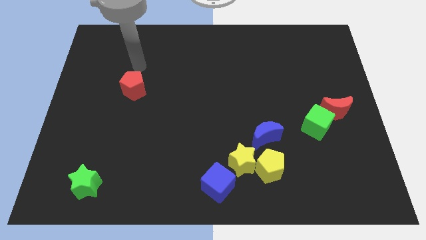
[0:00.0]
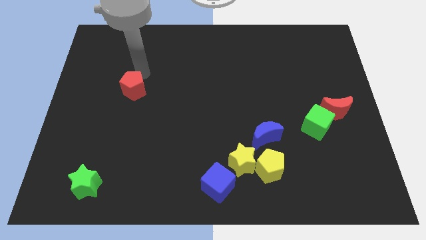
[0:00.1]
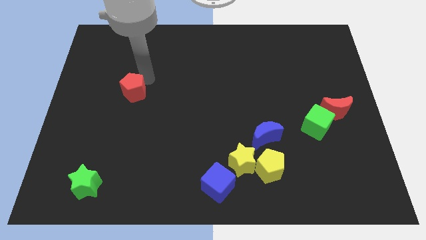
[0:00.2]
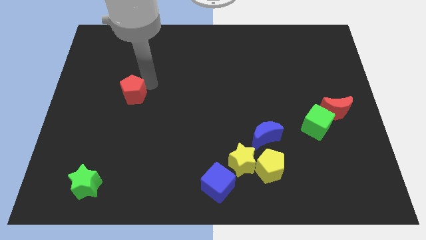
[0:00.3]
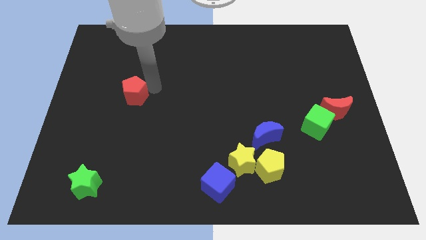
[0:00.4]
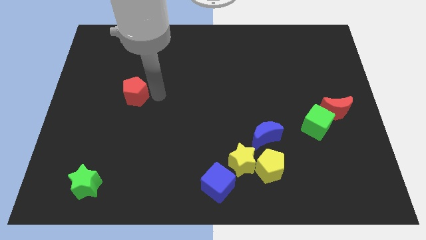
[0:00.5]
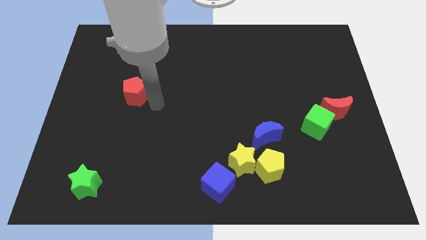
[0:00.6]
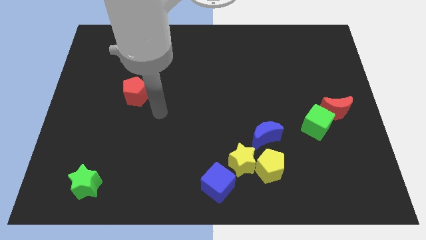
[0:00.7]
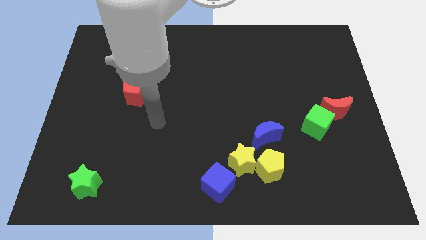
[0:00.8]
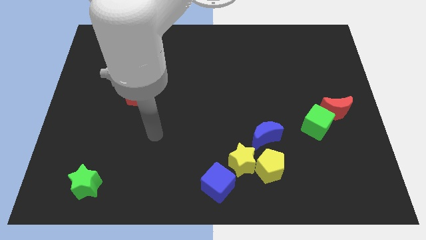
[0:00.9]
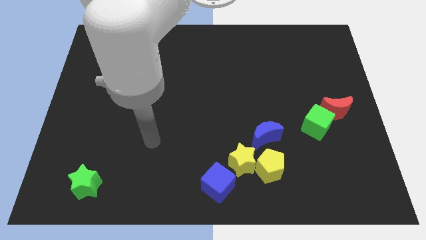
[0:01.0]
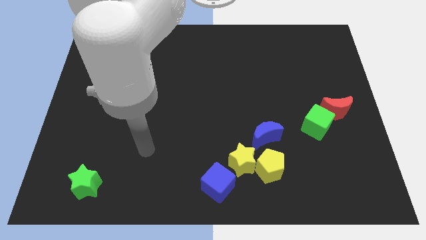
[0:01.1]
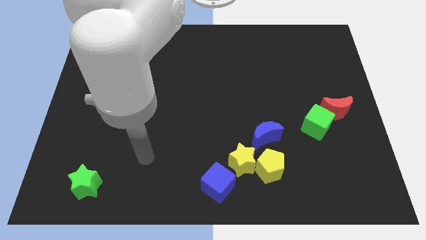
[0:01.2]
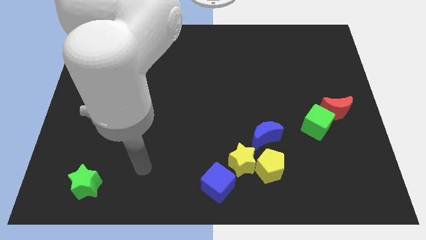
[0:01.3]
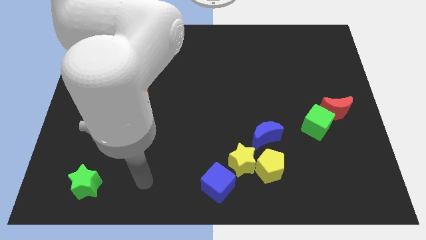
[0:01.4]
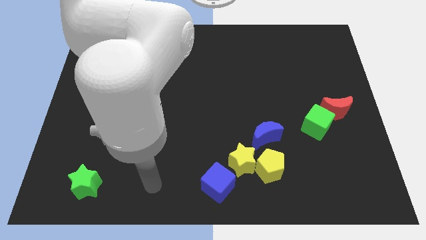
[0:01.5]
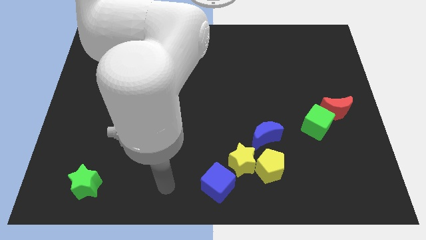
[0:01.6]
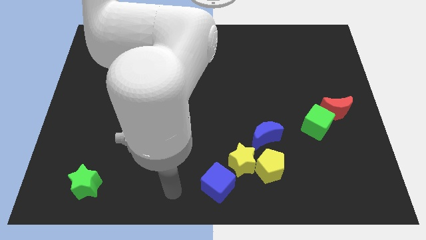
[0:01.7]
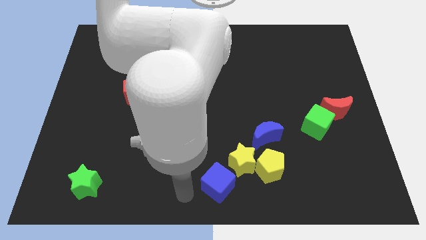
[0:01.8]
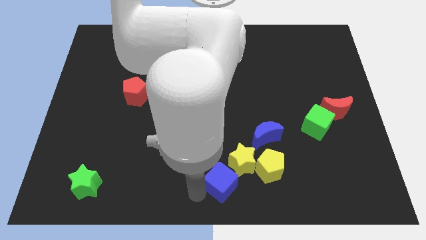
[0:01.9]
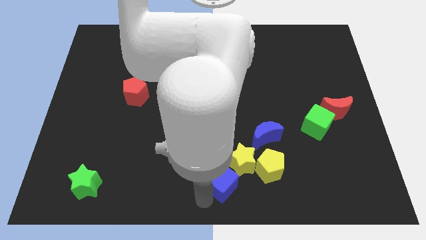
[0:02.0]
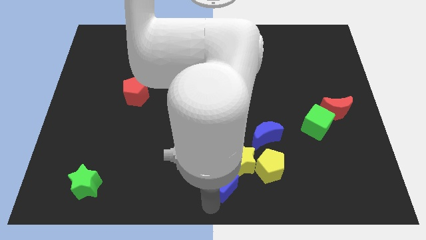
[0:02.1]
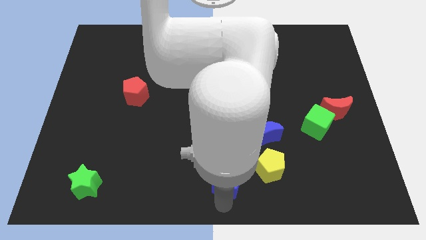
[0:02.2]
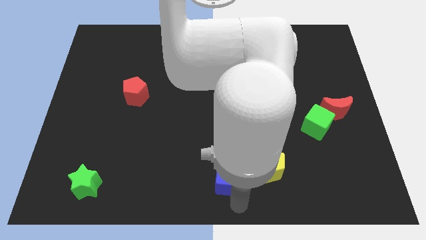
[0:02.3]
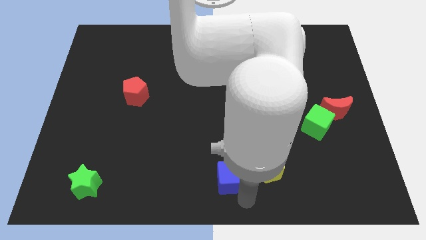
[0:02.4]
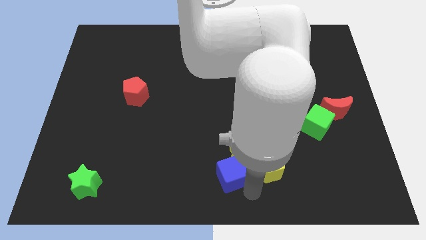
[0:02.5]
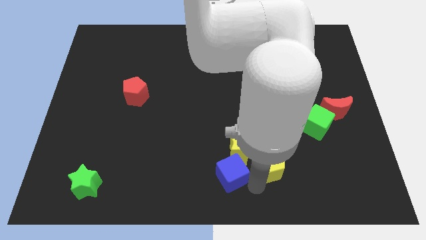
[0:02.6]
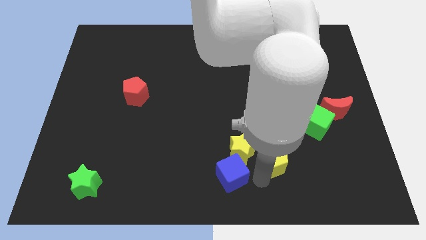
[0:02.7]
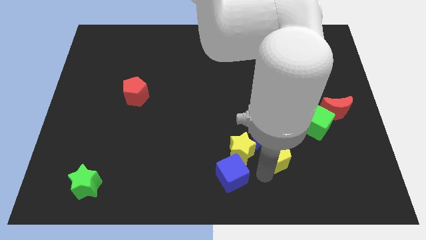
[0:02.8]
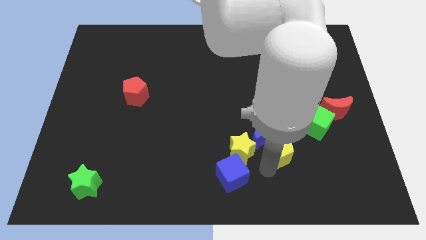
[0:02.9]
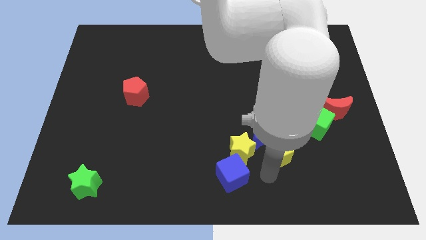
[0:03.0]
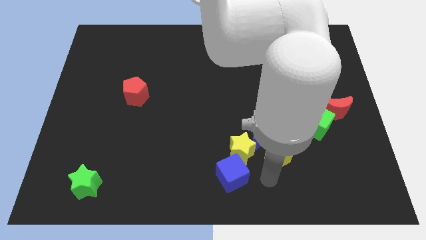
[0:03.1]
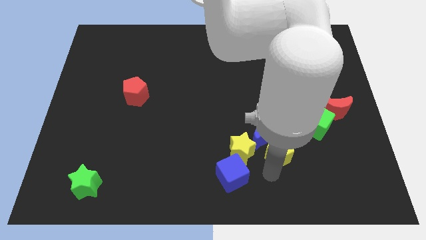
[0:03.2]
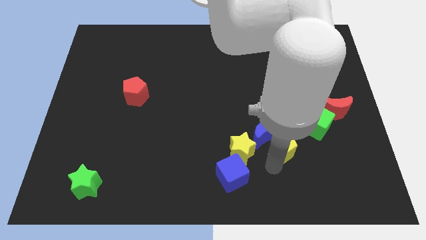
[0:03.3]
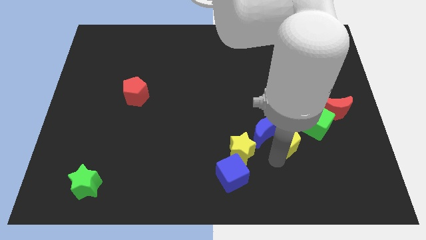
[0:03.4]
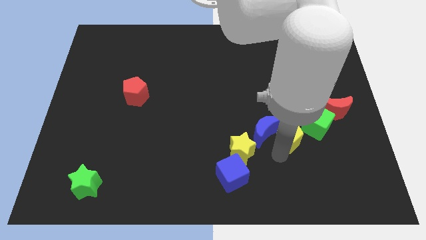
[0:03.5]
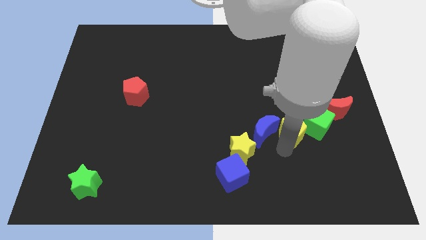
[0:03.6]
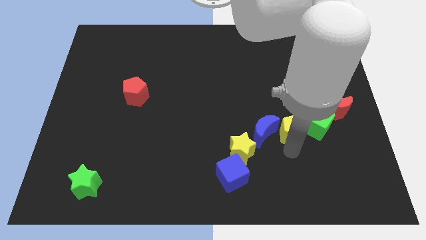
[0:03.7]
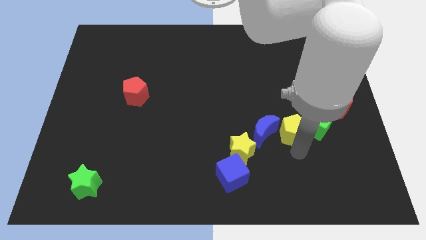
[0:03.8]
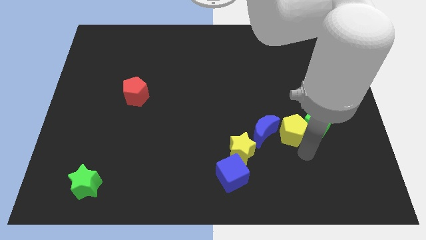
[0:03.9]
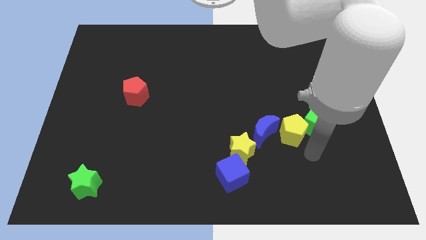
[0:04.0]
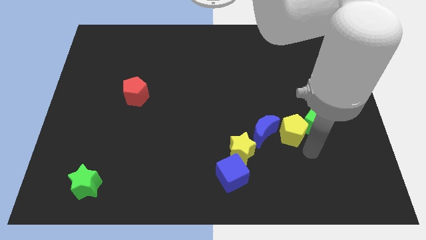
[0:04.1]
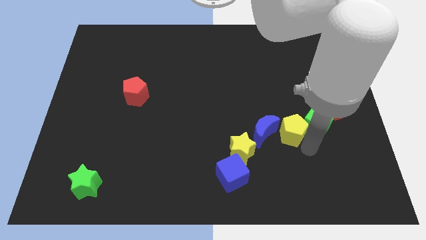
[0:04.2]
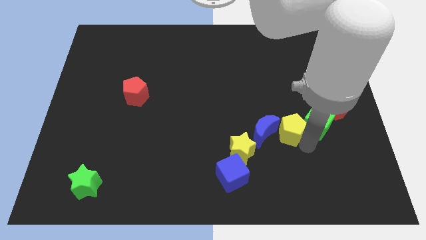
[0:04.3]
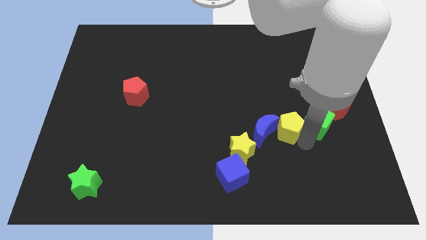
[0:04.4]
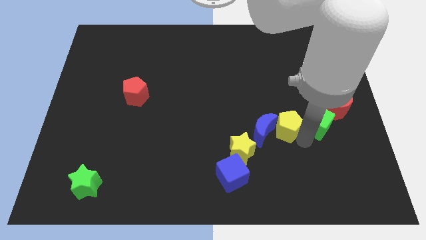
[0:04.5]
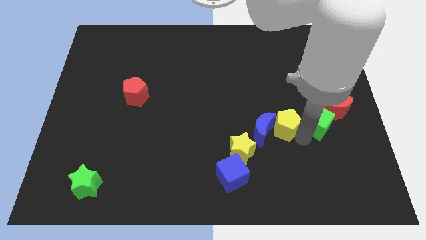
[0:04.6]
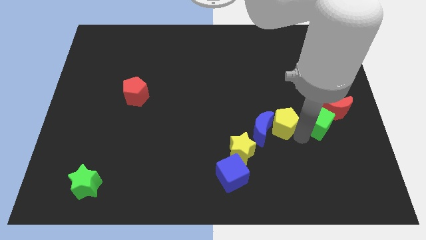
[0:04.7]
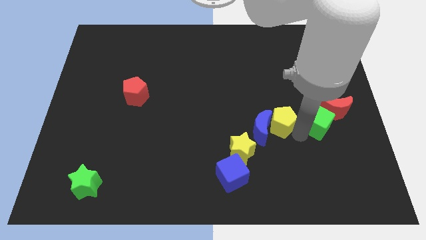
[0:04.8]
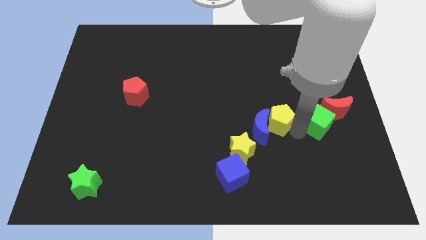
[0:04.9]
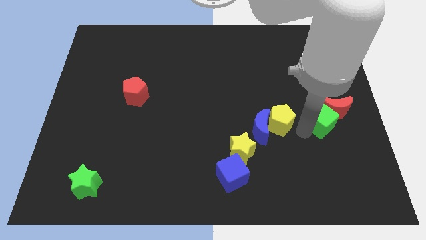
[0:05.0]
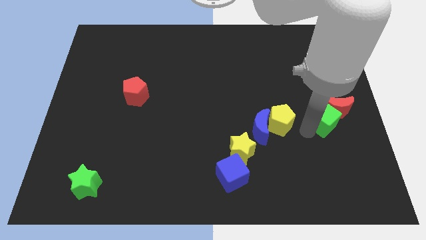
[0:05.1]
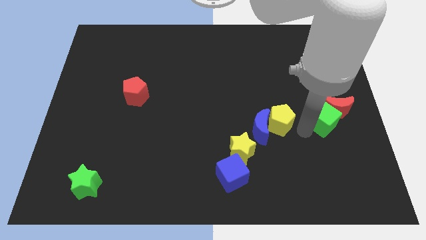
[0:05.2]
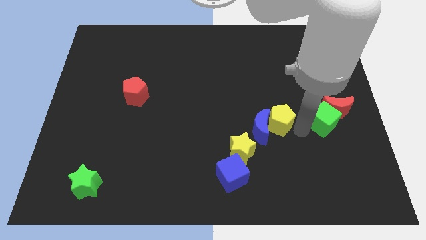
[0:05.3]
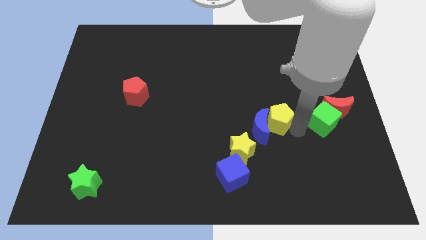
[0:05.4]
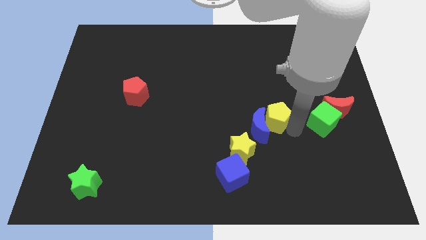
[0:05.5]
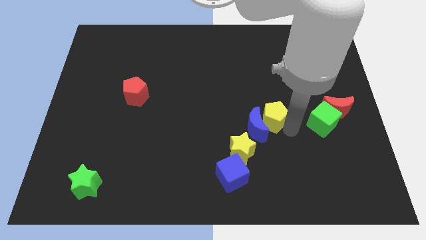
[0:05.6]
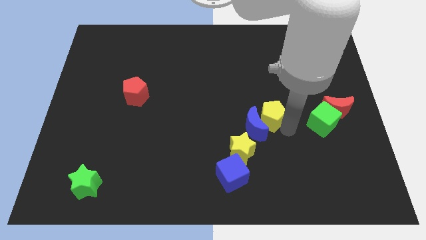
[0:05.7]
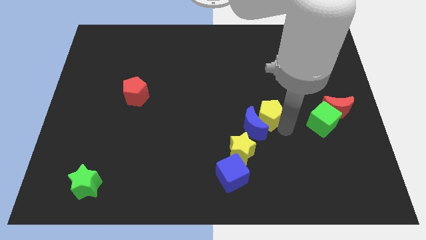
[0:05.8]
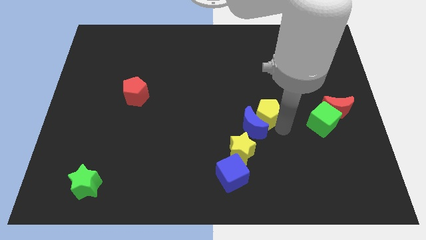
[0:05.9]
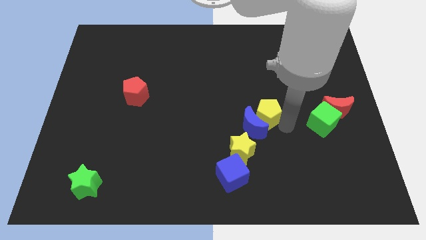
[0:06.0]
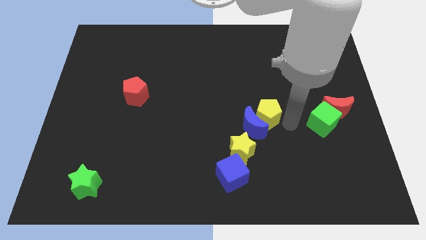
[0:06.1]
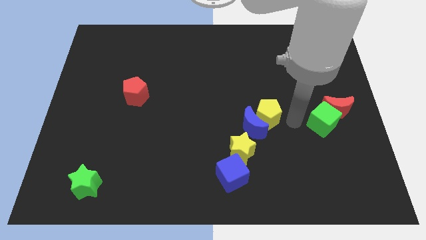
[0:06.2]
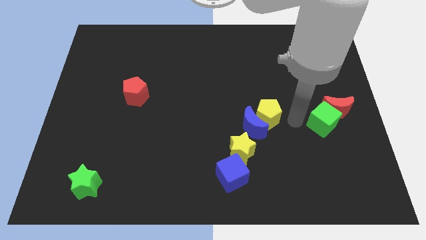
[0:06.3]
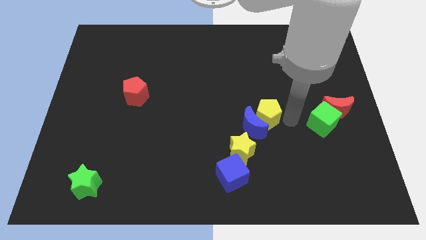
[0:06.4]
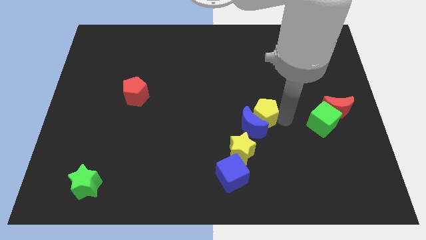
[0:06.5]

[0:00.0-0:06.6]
slide the yellow pentagon to the center
